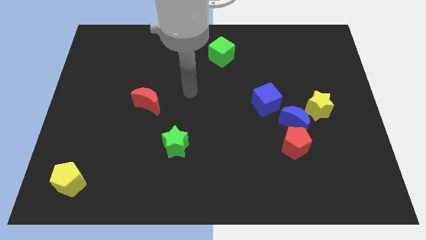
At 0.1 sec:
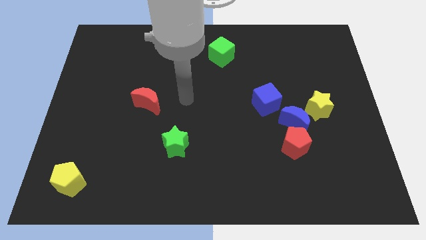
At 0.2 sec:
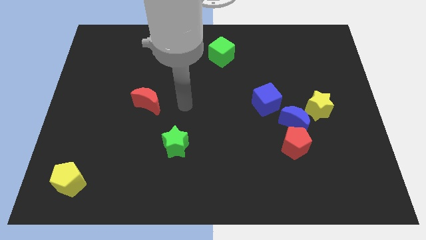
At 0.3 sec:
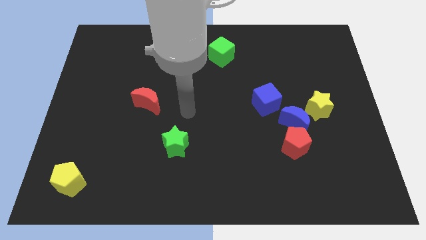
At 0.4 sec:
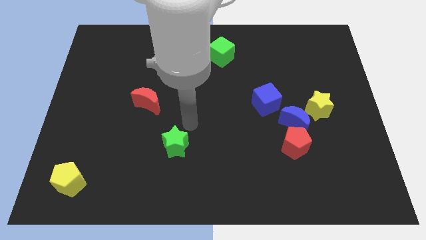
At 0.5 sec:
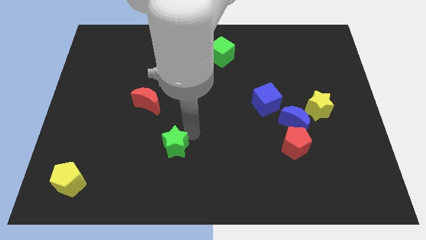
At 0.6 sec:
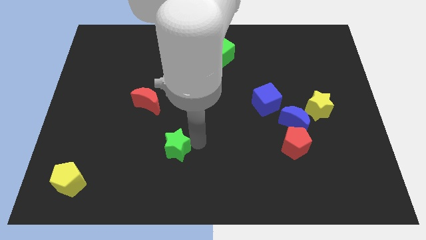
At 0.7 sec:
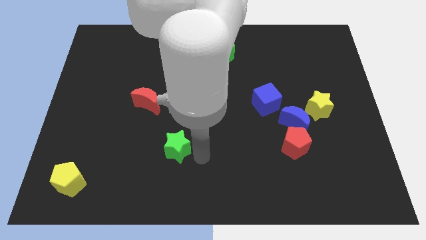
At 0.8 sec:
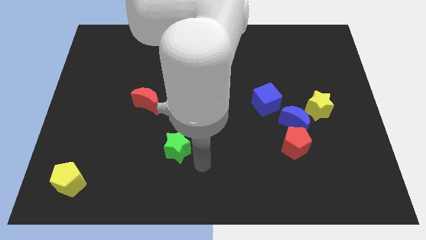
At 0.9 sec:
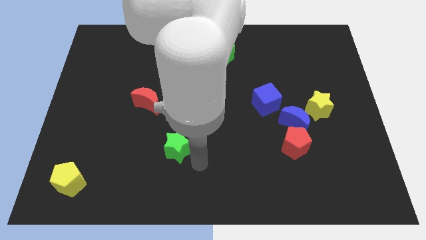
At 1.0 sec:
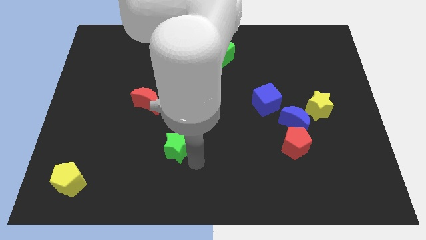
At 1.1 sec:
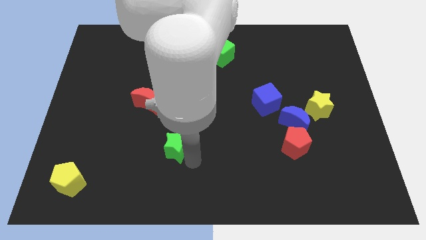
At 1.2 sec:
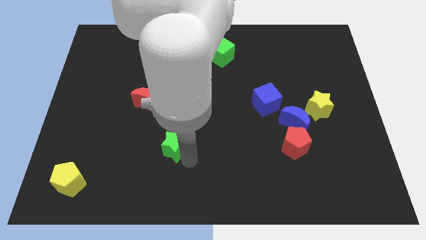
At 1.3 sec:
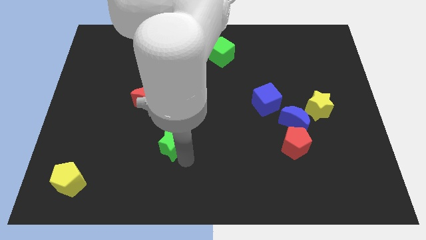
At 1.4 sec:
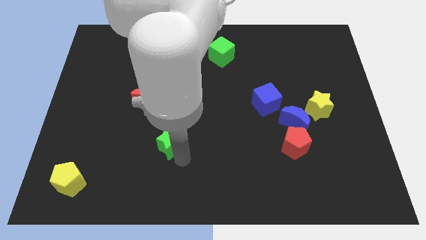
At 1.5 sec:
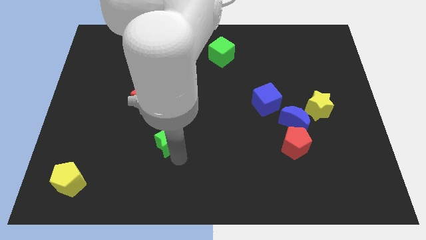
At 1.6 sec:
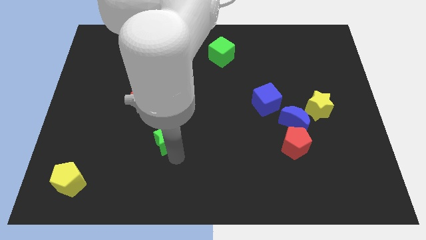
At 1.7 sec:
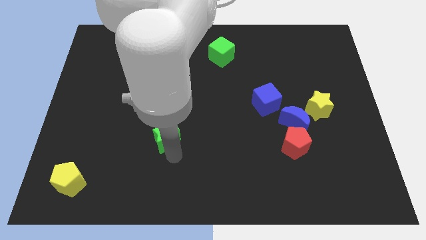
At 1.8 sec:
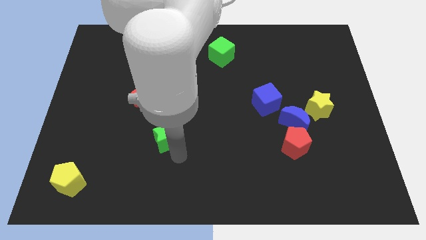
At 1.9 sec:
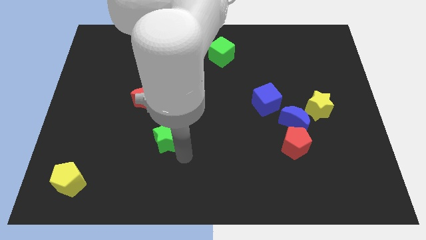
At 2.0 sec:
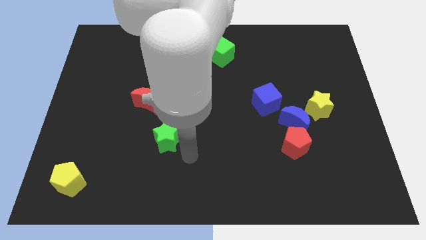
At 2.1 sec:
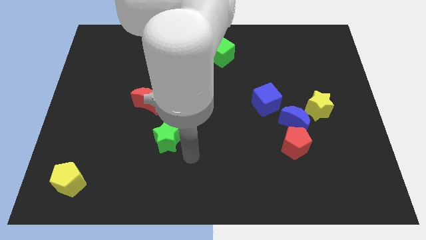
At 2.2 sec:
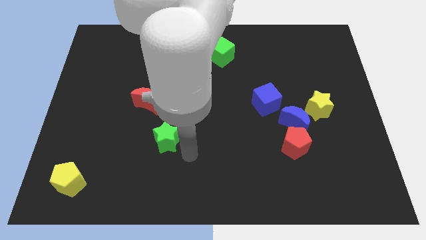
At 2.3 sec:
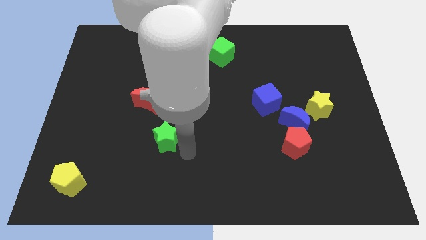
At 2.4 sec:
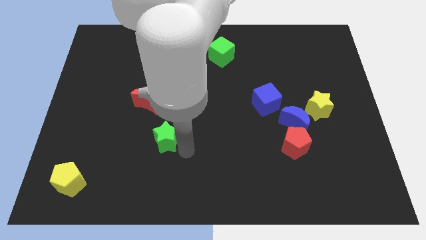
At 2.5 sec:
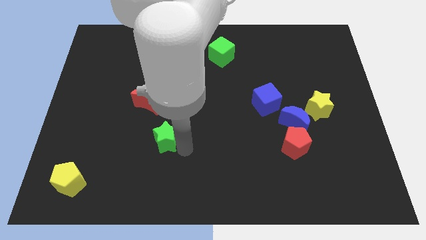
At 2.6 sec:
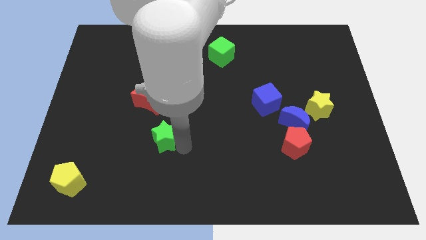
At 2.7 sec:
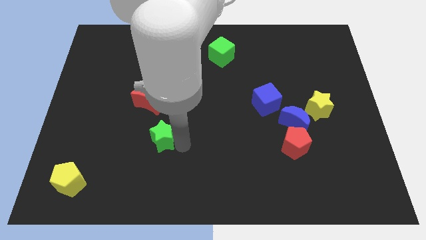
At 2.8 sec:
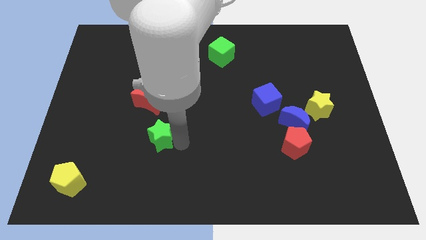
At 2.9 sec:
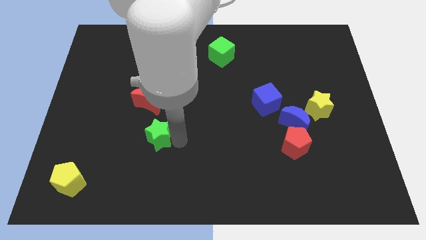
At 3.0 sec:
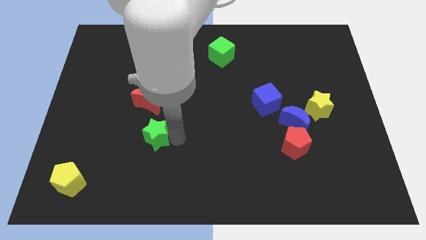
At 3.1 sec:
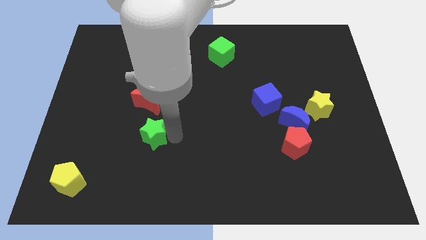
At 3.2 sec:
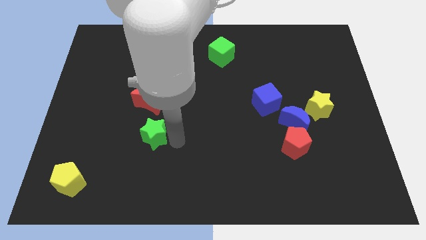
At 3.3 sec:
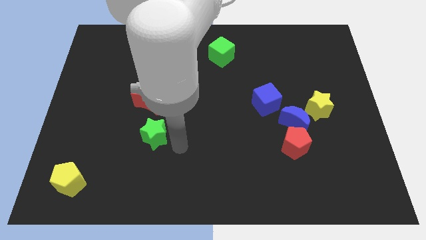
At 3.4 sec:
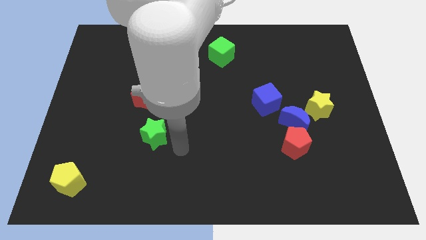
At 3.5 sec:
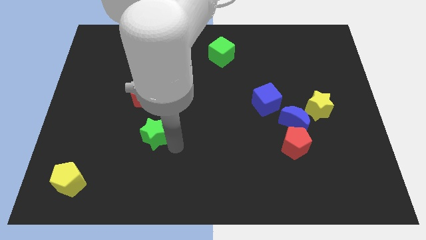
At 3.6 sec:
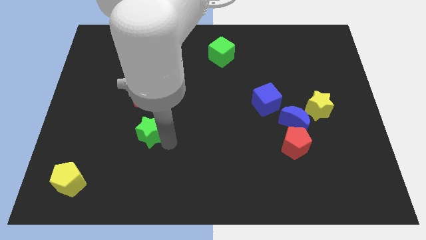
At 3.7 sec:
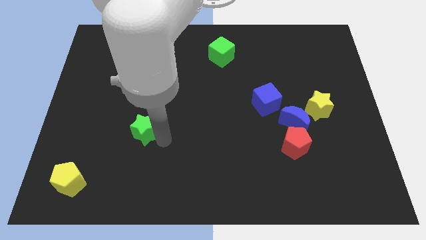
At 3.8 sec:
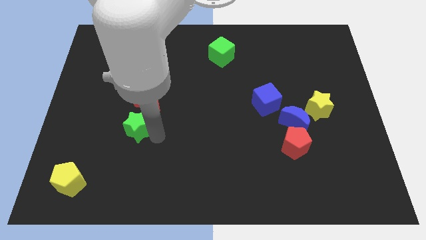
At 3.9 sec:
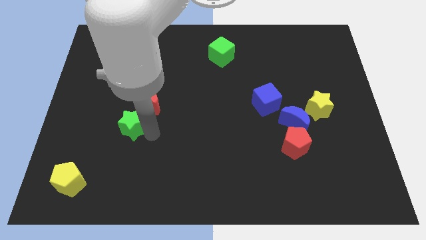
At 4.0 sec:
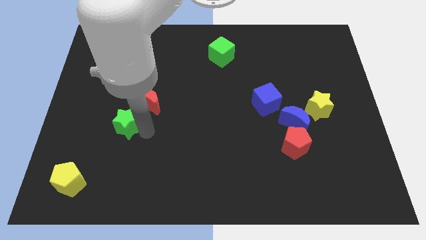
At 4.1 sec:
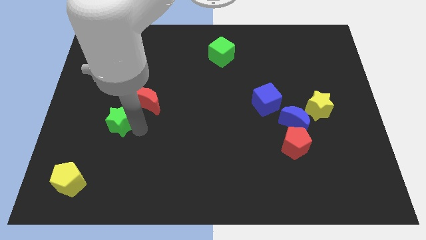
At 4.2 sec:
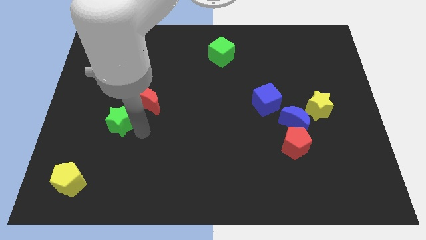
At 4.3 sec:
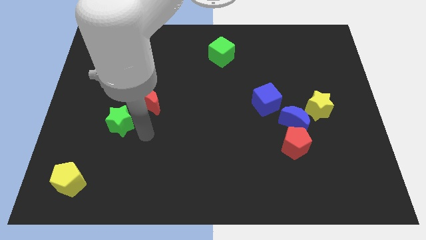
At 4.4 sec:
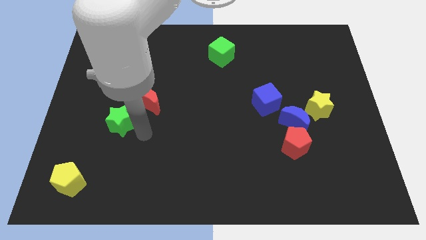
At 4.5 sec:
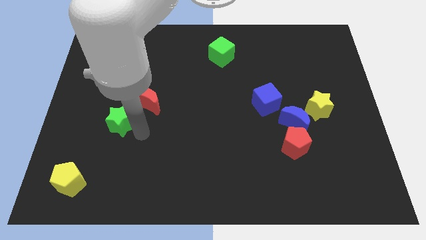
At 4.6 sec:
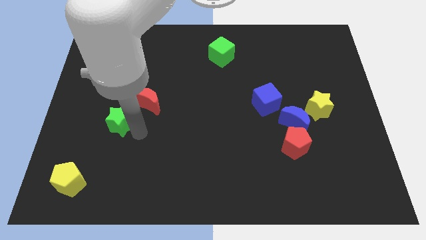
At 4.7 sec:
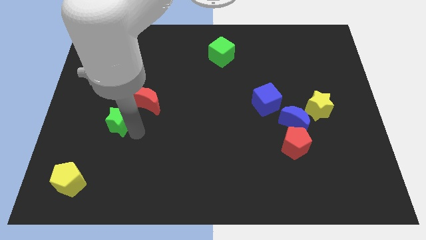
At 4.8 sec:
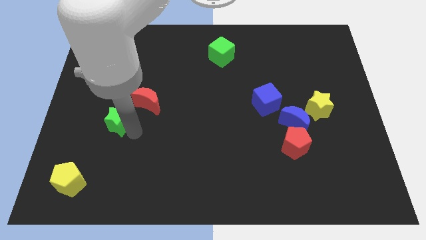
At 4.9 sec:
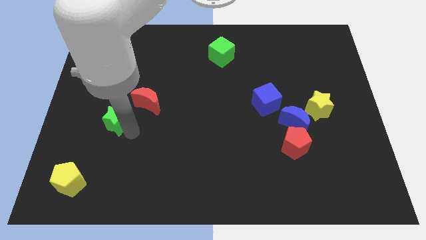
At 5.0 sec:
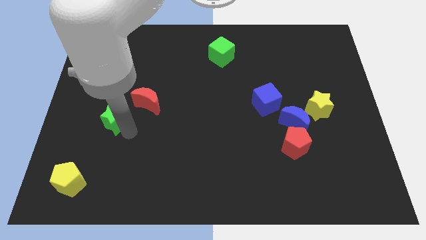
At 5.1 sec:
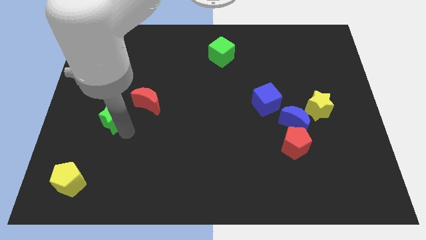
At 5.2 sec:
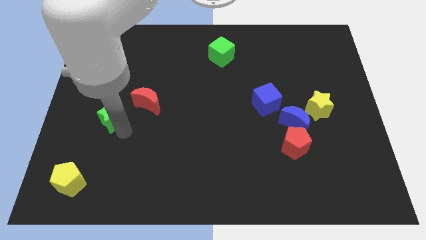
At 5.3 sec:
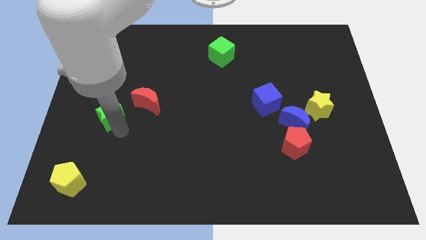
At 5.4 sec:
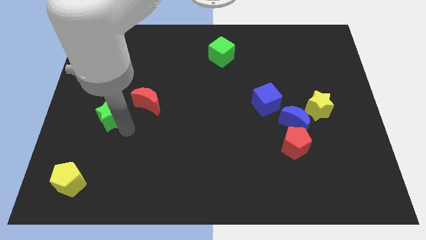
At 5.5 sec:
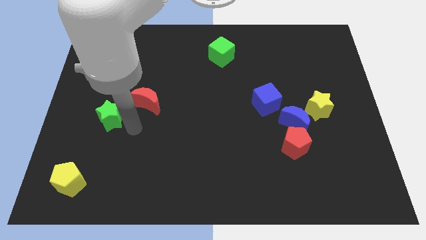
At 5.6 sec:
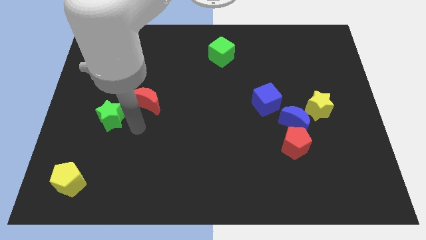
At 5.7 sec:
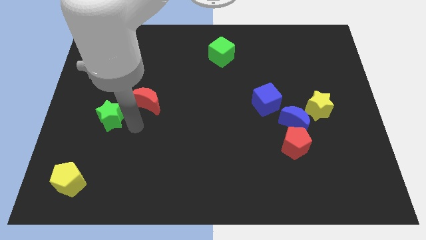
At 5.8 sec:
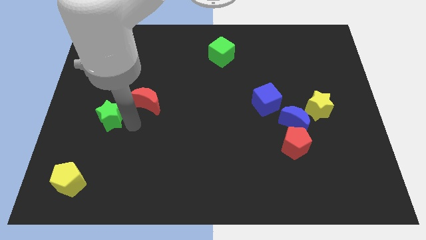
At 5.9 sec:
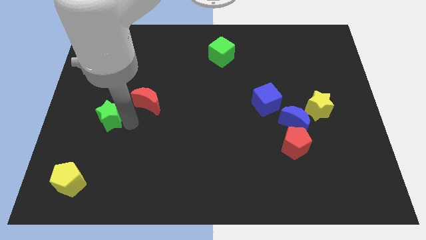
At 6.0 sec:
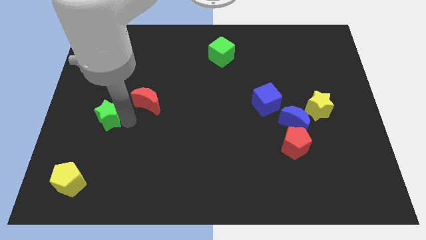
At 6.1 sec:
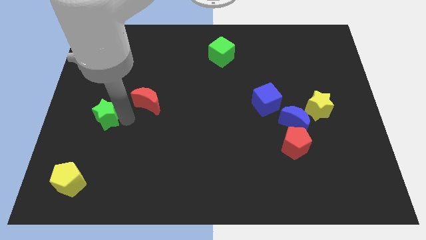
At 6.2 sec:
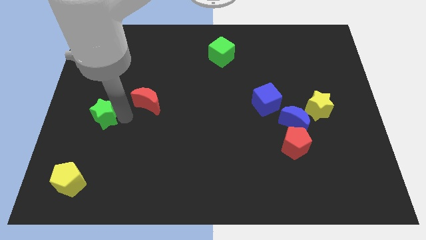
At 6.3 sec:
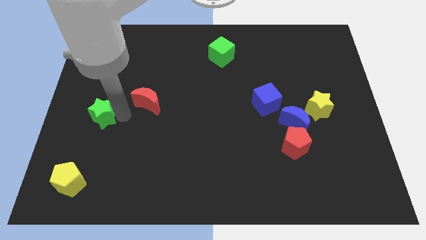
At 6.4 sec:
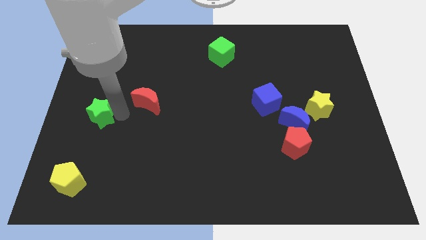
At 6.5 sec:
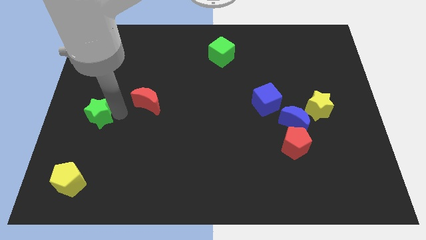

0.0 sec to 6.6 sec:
push the green star to the left side

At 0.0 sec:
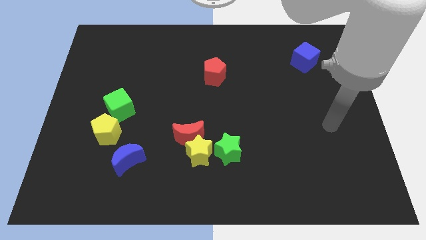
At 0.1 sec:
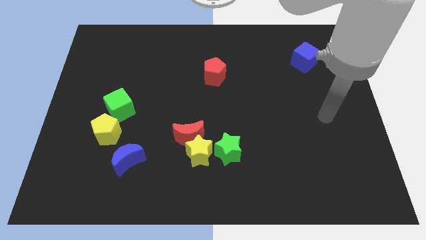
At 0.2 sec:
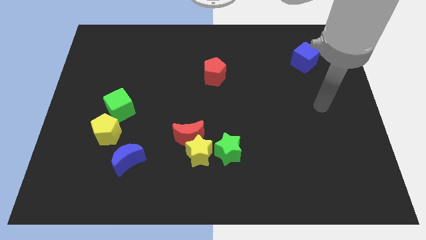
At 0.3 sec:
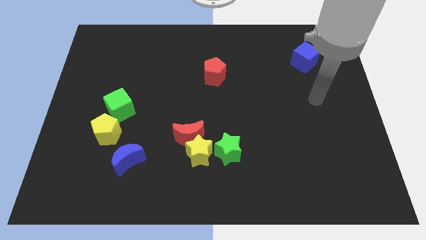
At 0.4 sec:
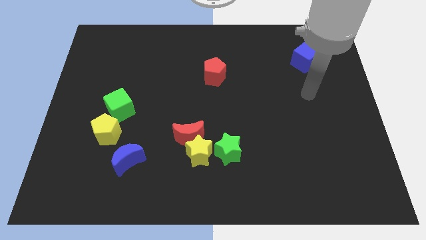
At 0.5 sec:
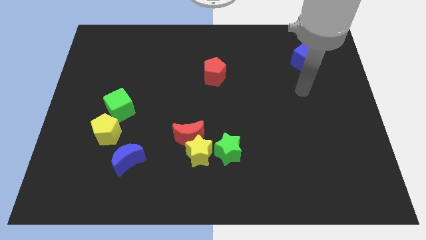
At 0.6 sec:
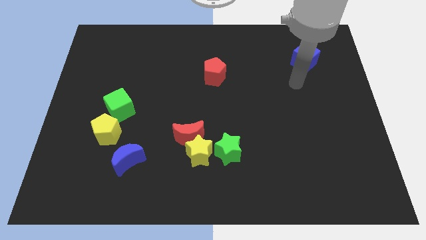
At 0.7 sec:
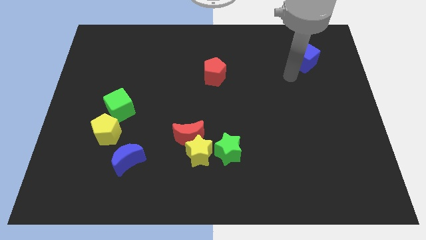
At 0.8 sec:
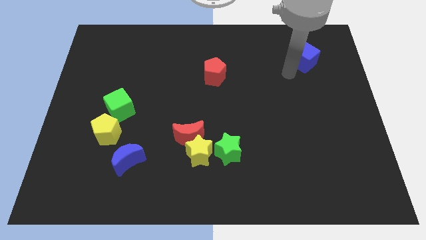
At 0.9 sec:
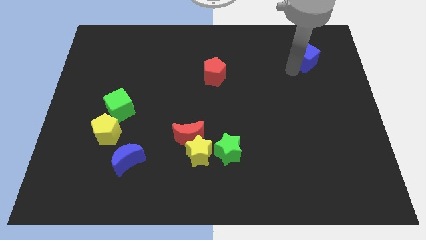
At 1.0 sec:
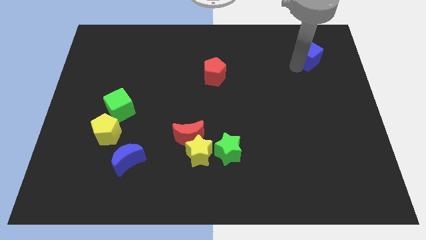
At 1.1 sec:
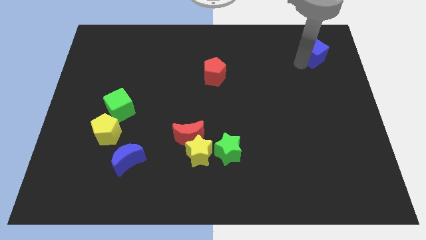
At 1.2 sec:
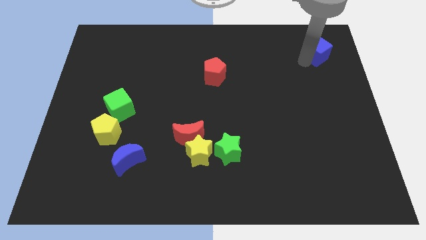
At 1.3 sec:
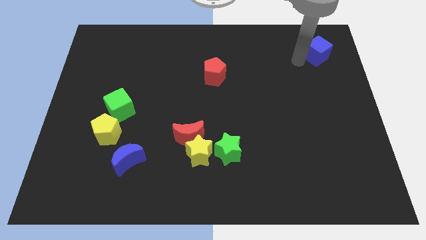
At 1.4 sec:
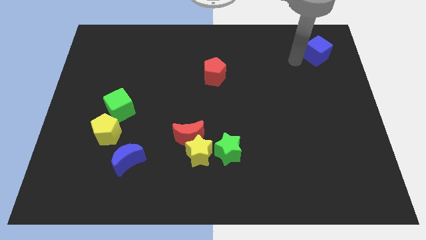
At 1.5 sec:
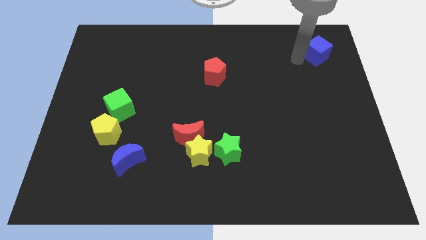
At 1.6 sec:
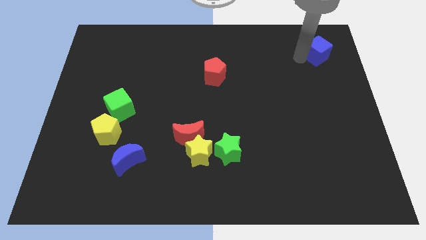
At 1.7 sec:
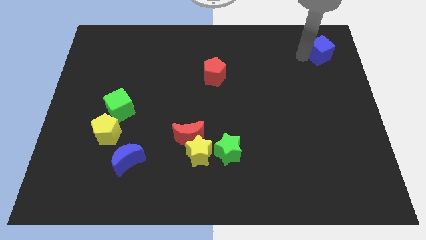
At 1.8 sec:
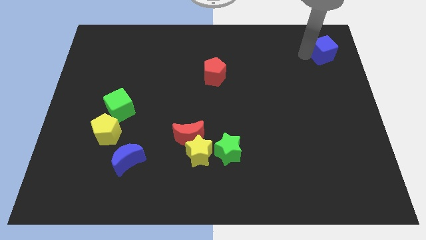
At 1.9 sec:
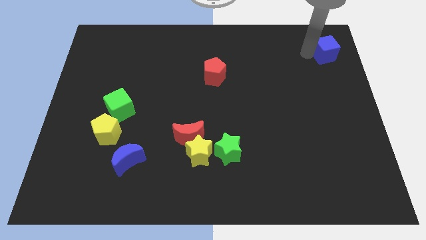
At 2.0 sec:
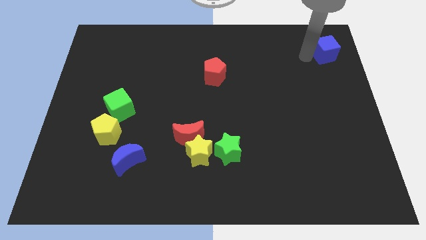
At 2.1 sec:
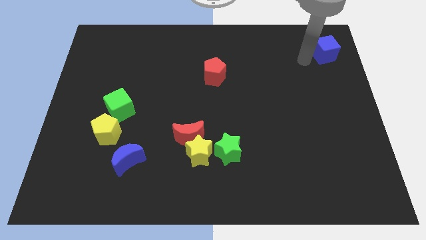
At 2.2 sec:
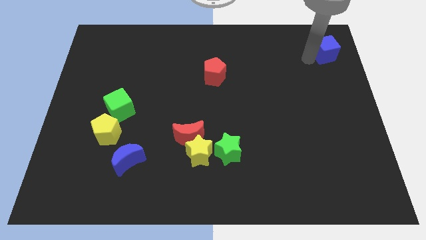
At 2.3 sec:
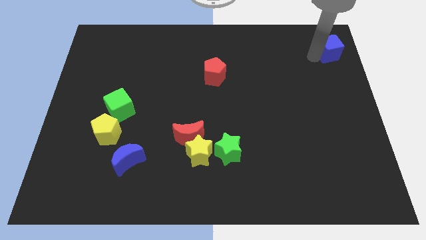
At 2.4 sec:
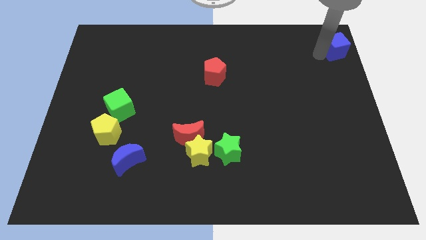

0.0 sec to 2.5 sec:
put the blue cube to the top right corner
